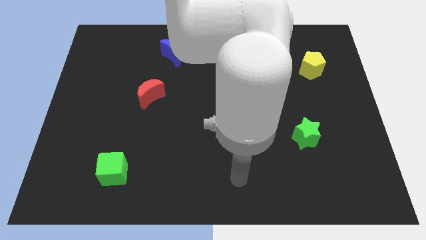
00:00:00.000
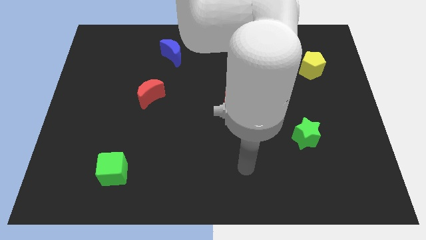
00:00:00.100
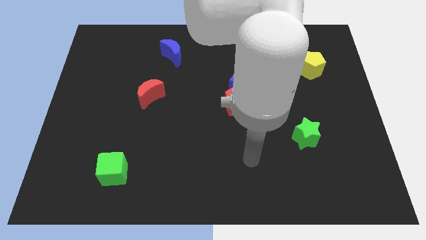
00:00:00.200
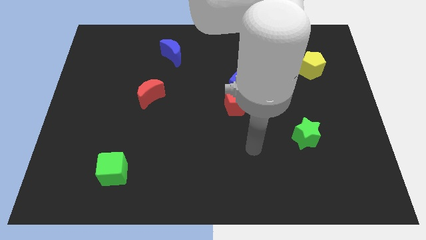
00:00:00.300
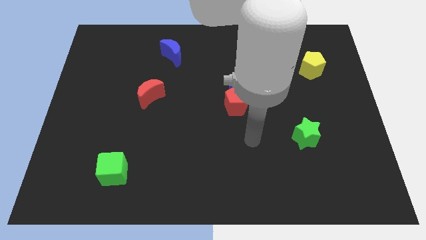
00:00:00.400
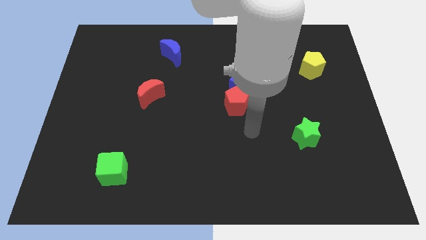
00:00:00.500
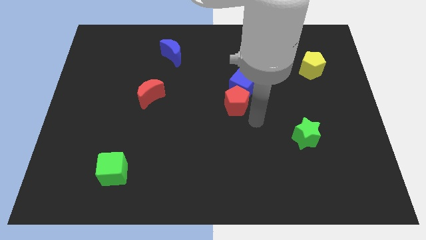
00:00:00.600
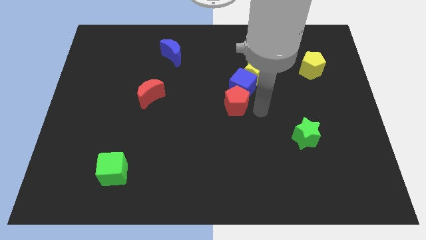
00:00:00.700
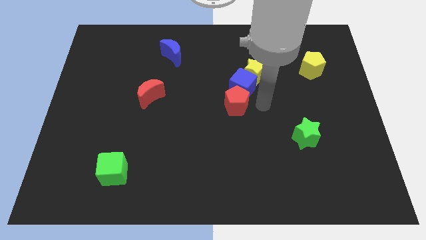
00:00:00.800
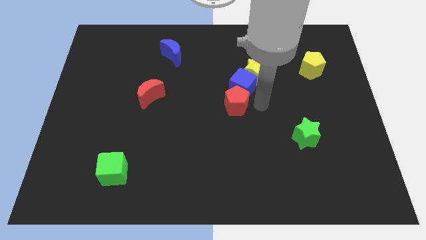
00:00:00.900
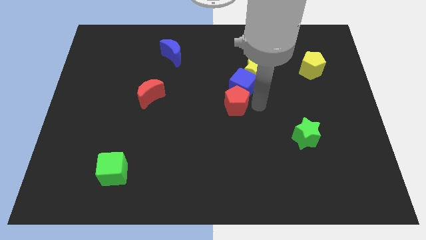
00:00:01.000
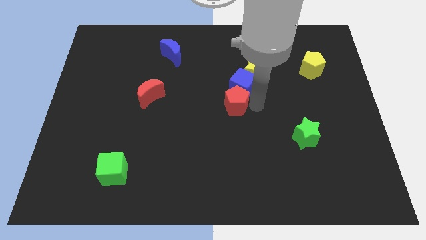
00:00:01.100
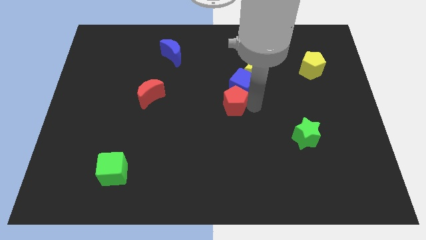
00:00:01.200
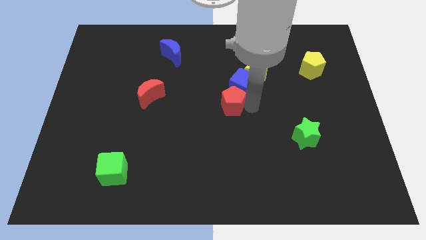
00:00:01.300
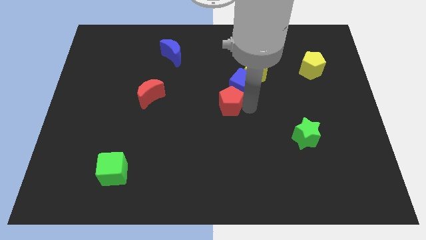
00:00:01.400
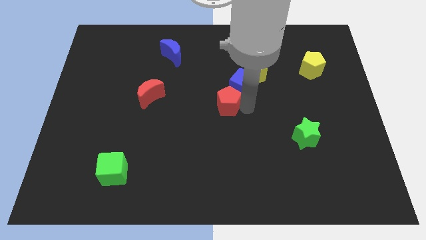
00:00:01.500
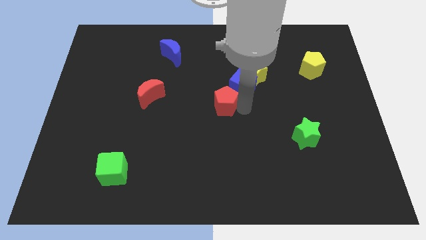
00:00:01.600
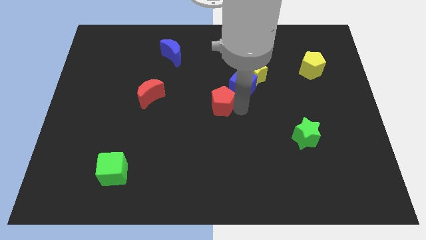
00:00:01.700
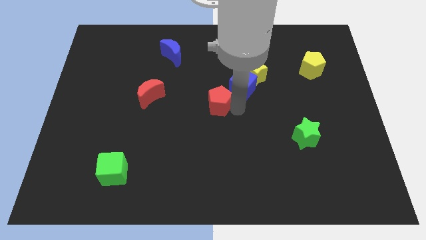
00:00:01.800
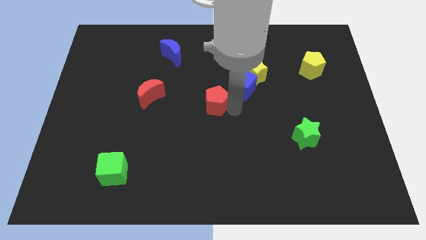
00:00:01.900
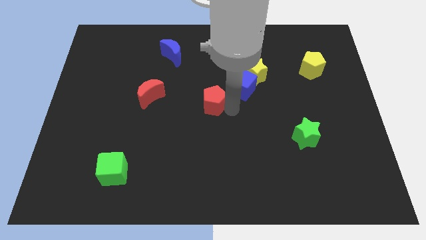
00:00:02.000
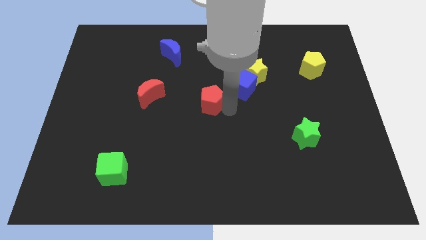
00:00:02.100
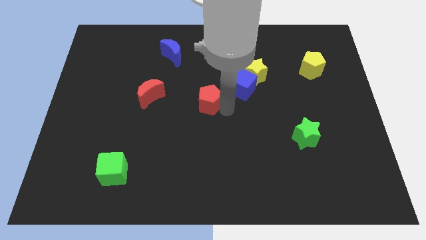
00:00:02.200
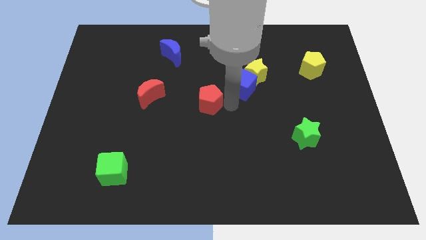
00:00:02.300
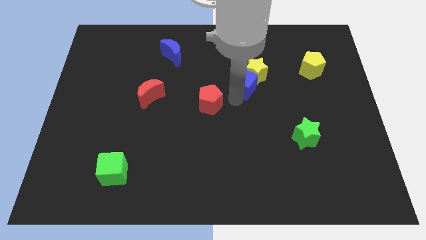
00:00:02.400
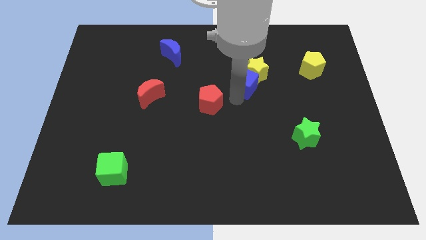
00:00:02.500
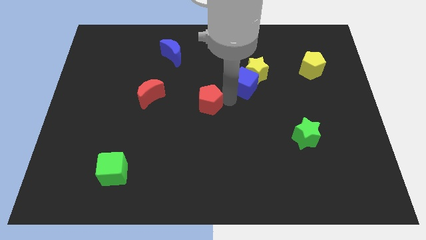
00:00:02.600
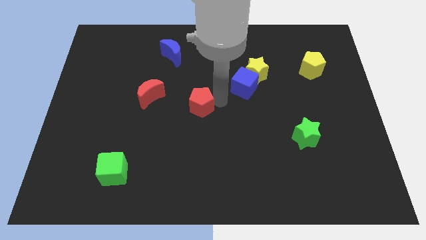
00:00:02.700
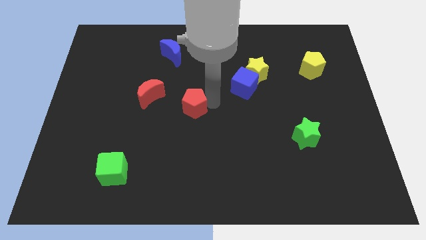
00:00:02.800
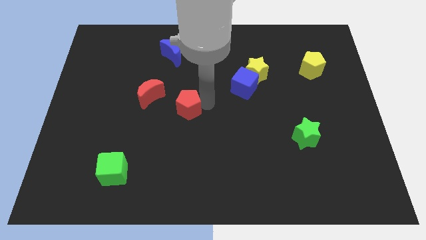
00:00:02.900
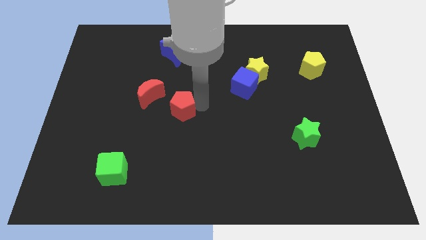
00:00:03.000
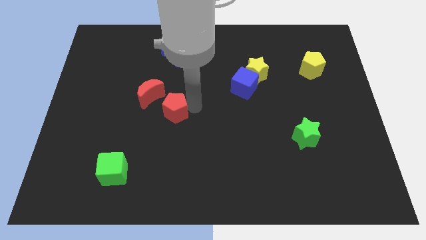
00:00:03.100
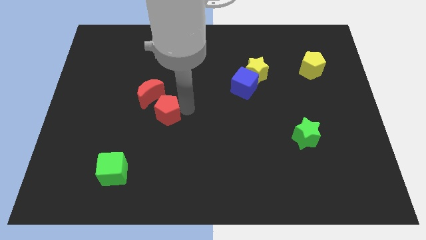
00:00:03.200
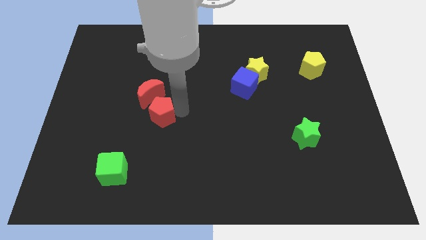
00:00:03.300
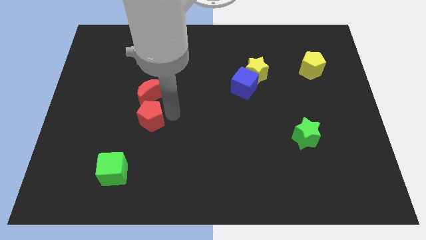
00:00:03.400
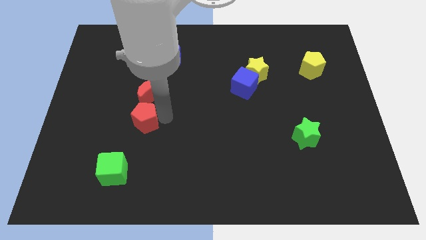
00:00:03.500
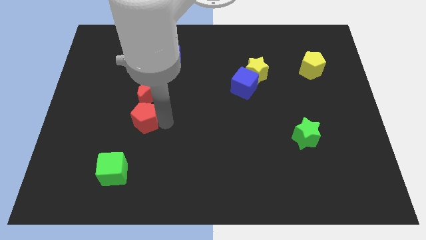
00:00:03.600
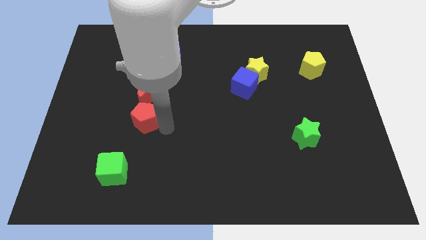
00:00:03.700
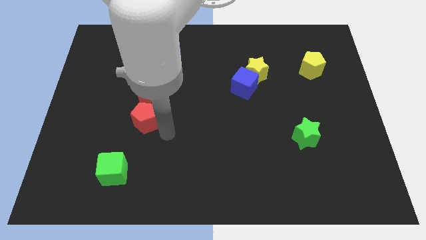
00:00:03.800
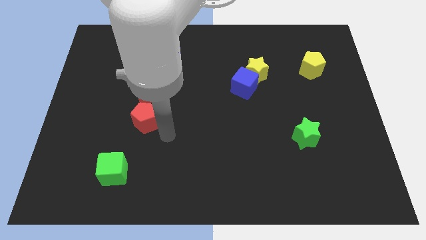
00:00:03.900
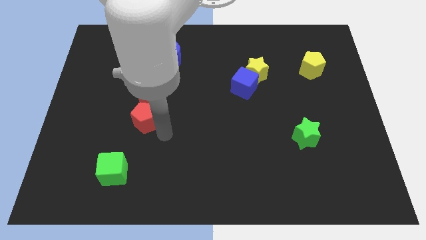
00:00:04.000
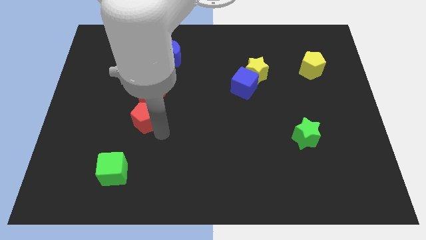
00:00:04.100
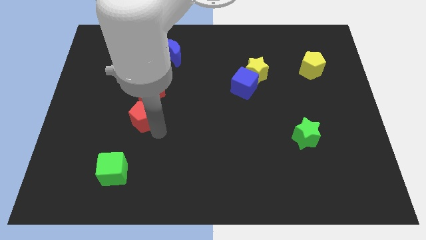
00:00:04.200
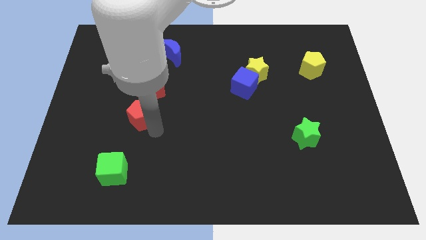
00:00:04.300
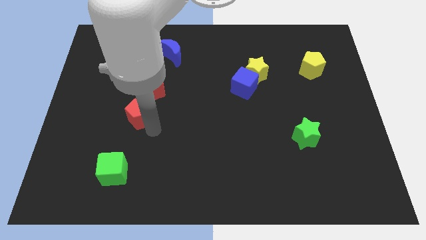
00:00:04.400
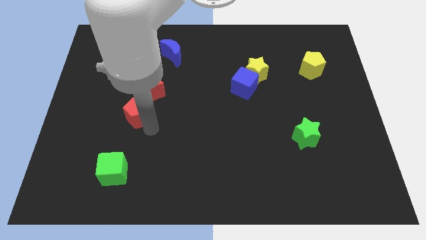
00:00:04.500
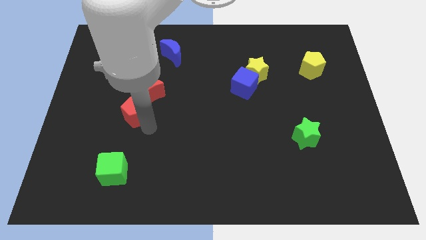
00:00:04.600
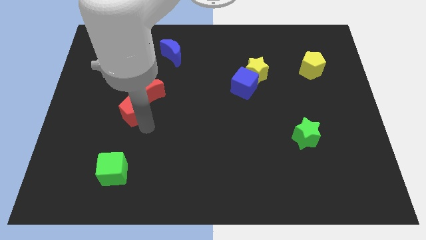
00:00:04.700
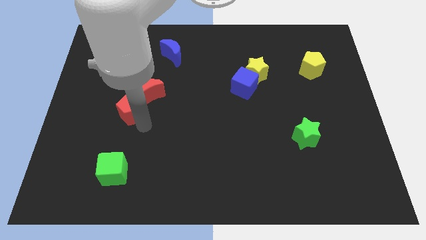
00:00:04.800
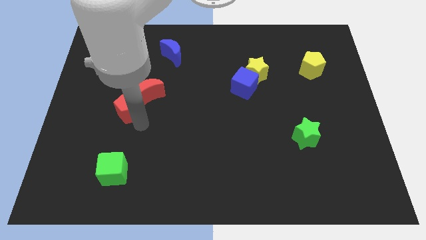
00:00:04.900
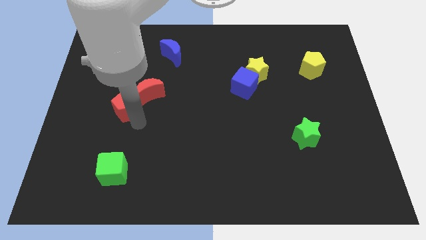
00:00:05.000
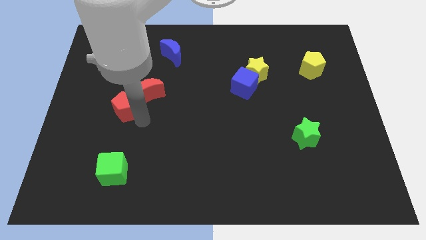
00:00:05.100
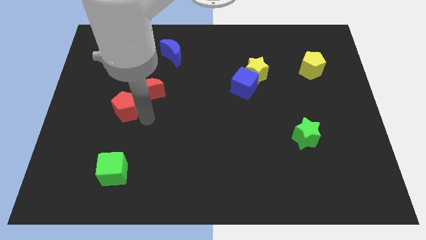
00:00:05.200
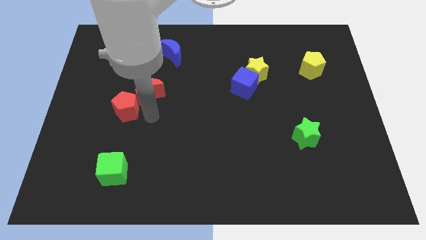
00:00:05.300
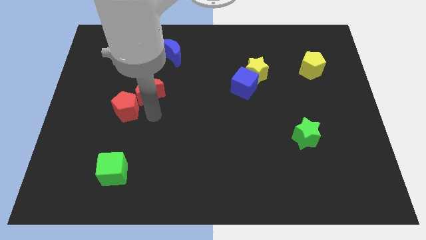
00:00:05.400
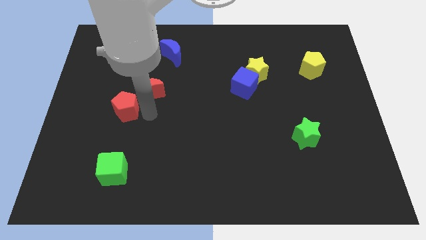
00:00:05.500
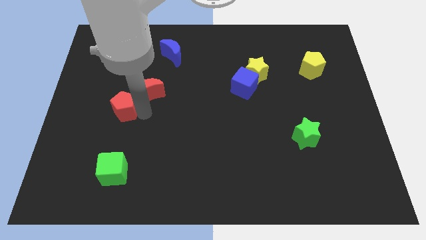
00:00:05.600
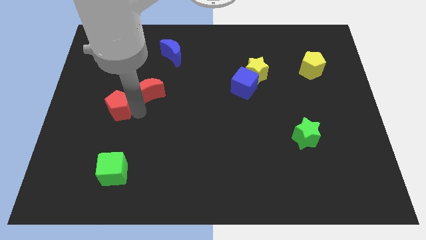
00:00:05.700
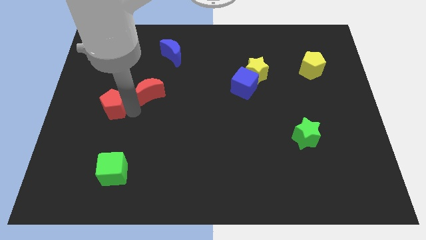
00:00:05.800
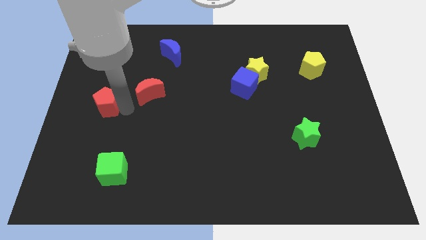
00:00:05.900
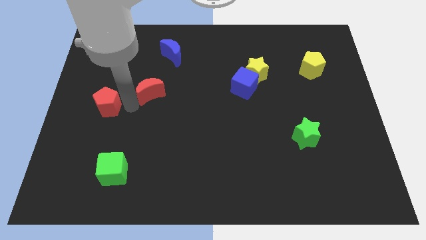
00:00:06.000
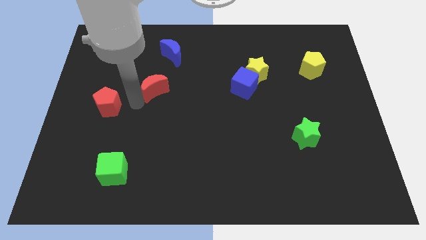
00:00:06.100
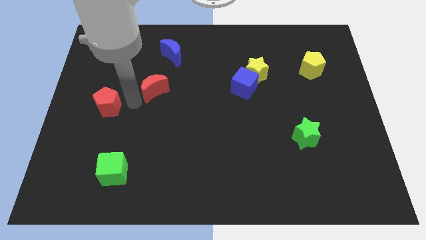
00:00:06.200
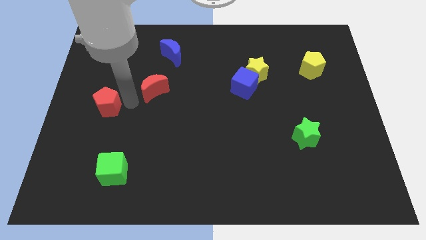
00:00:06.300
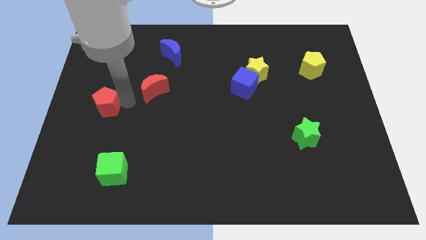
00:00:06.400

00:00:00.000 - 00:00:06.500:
put the red pentagon to the left side of the board
